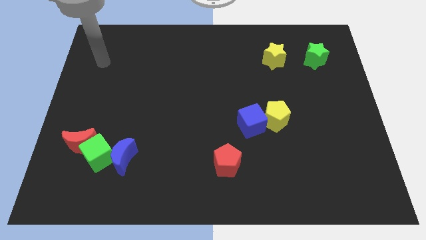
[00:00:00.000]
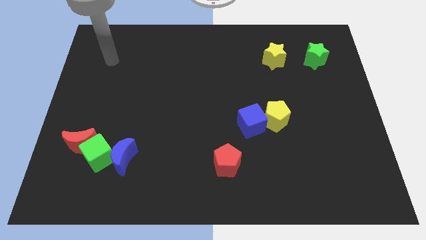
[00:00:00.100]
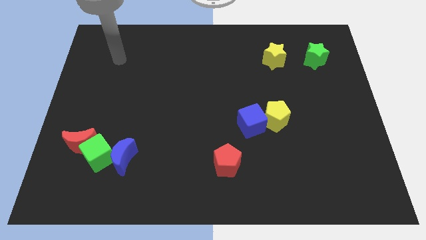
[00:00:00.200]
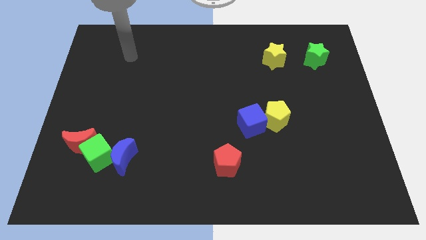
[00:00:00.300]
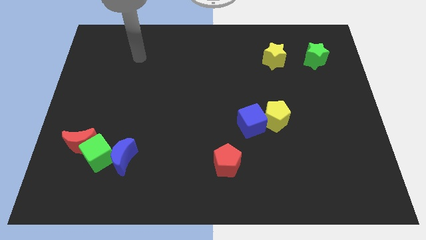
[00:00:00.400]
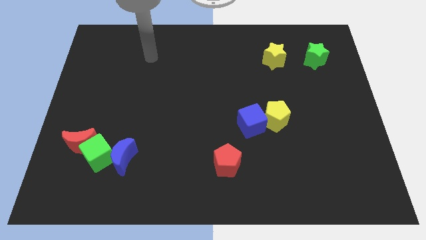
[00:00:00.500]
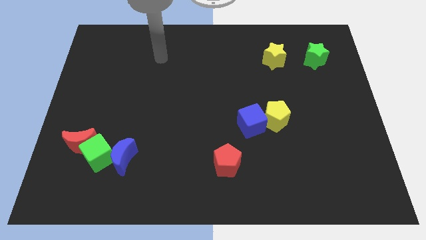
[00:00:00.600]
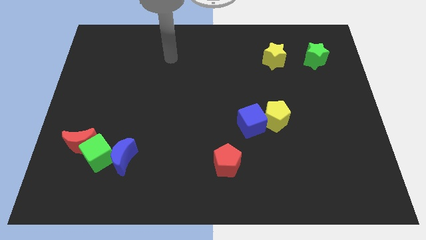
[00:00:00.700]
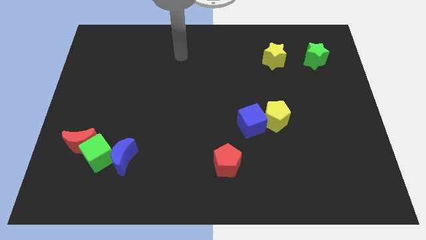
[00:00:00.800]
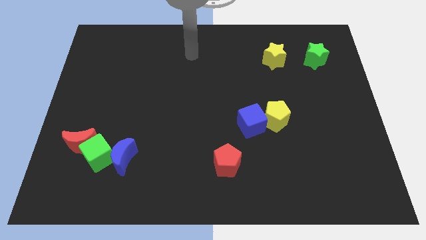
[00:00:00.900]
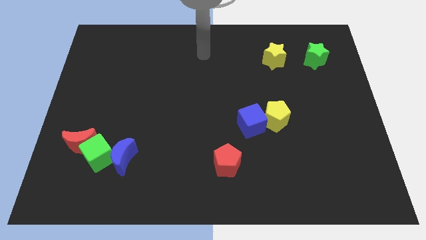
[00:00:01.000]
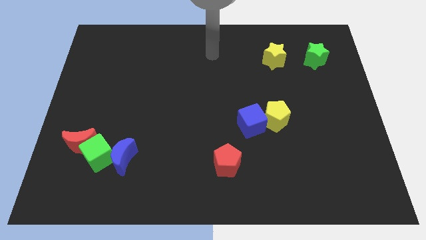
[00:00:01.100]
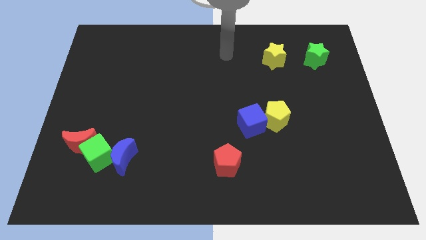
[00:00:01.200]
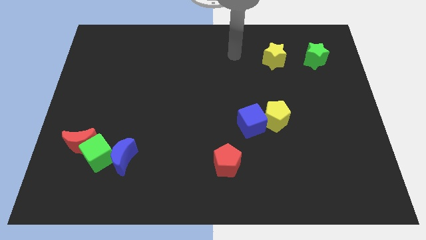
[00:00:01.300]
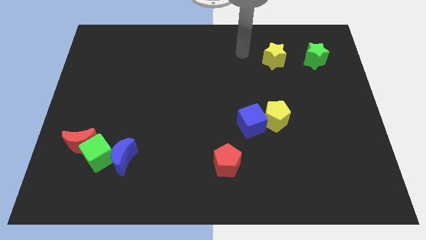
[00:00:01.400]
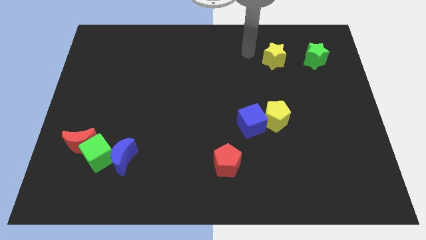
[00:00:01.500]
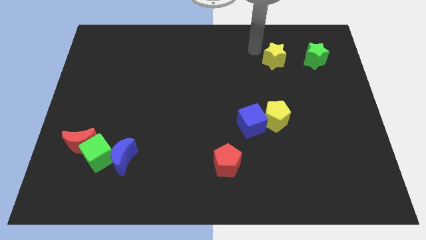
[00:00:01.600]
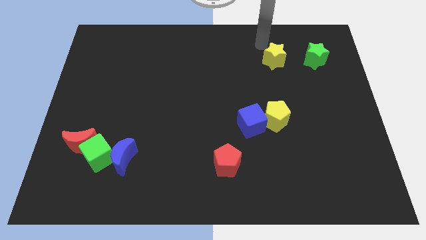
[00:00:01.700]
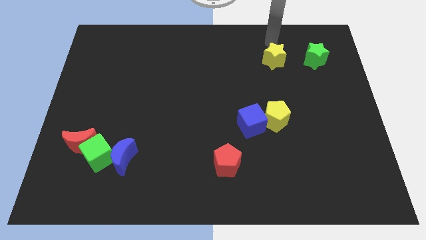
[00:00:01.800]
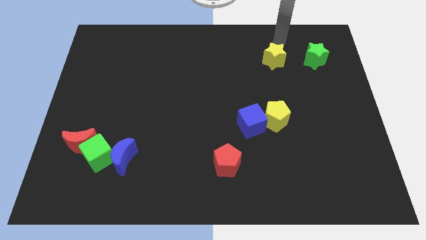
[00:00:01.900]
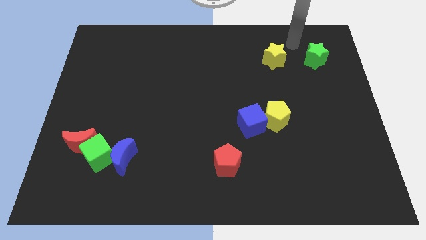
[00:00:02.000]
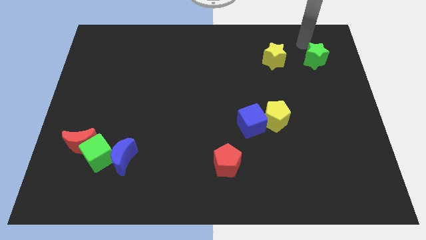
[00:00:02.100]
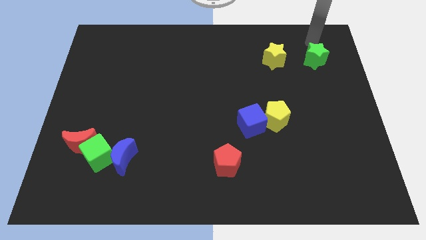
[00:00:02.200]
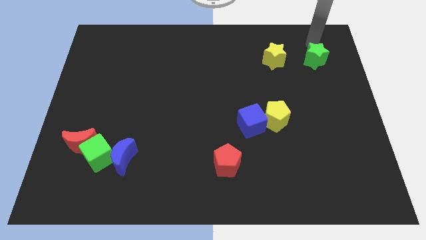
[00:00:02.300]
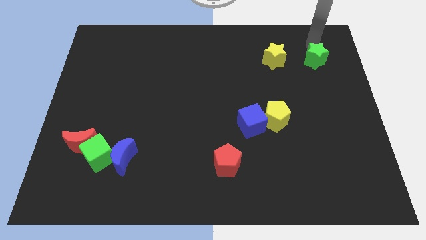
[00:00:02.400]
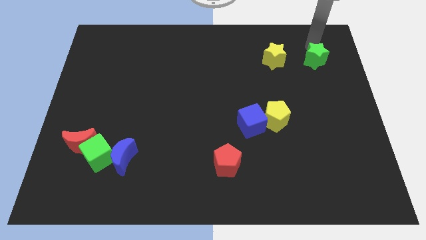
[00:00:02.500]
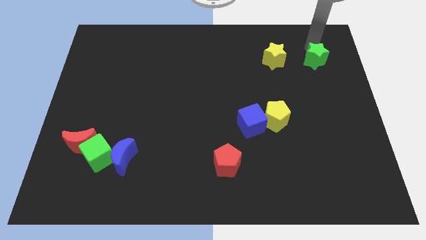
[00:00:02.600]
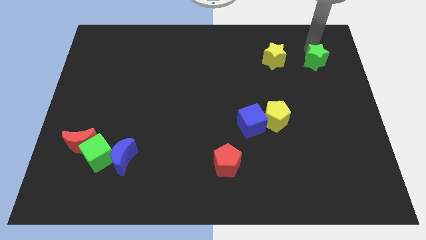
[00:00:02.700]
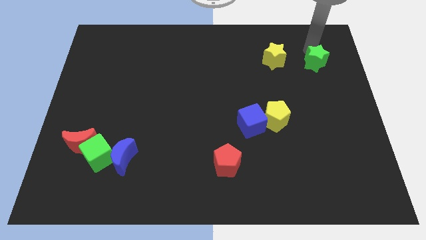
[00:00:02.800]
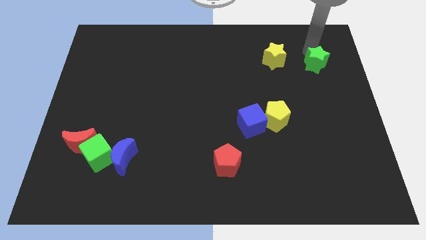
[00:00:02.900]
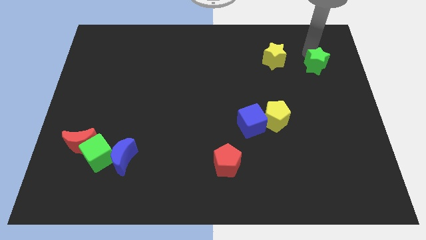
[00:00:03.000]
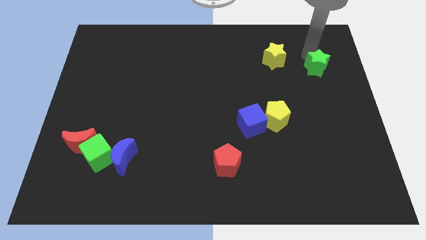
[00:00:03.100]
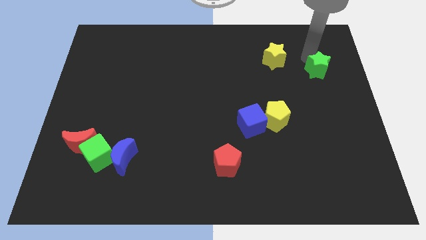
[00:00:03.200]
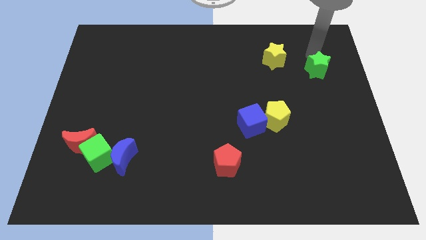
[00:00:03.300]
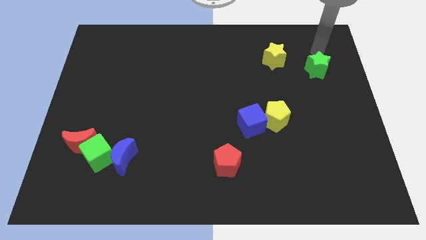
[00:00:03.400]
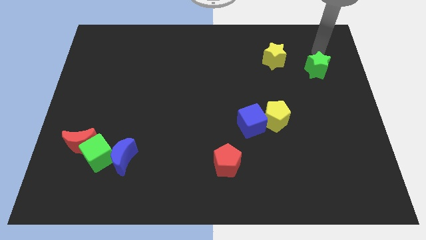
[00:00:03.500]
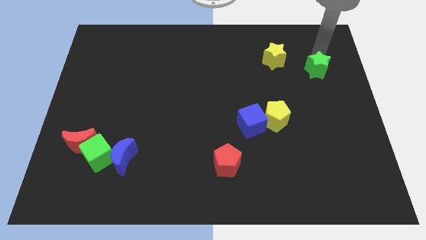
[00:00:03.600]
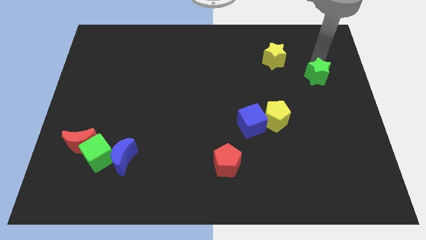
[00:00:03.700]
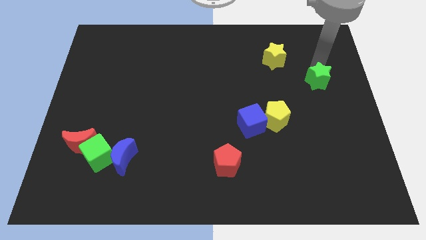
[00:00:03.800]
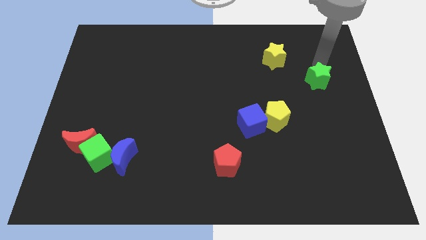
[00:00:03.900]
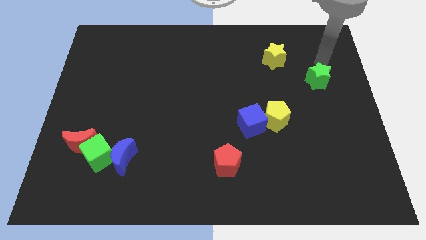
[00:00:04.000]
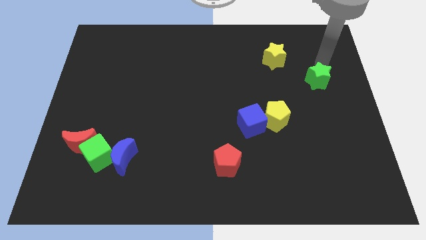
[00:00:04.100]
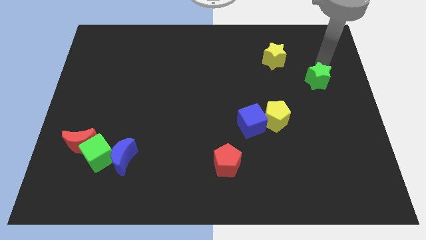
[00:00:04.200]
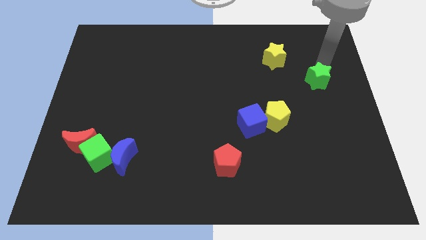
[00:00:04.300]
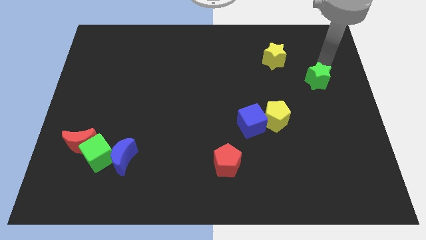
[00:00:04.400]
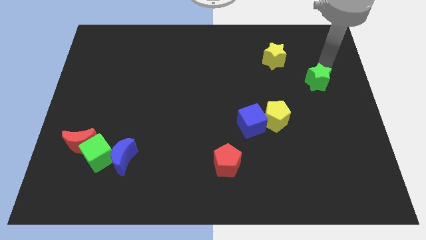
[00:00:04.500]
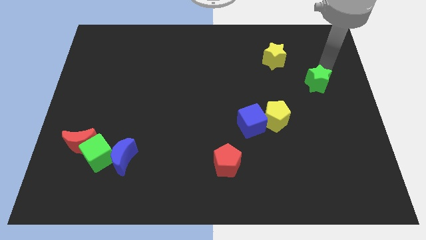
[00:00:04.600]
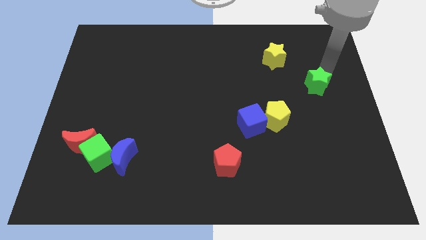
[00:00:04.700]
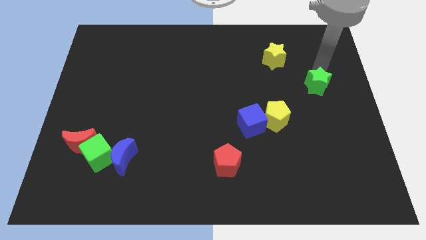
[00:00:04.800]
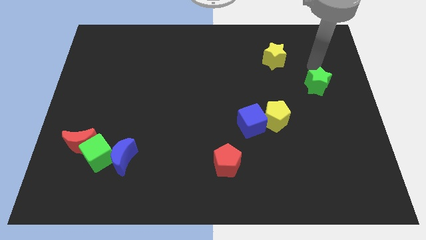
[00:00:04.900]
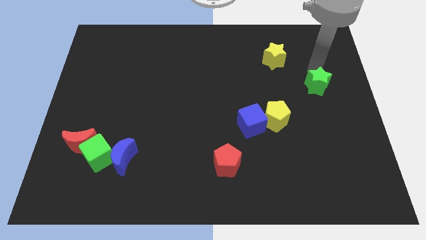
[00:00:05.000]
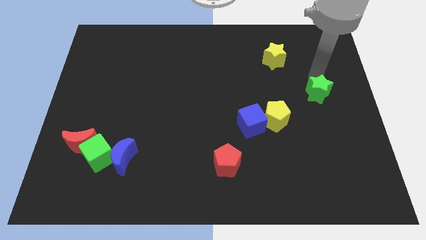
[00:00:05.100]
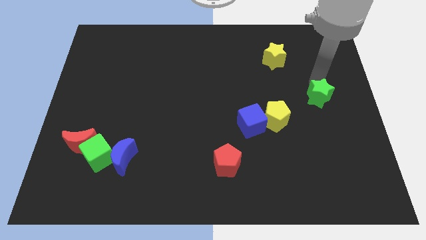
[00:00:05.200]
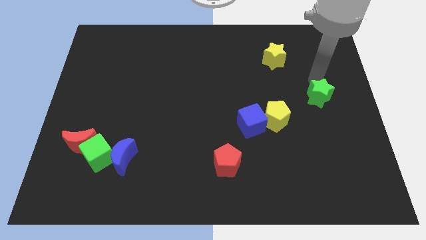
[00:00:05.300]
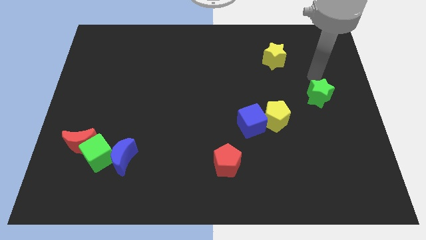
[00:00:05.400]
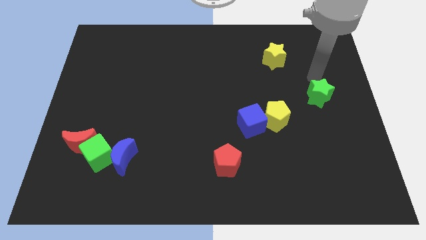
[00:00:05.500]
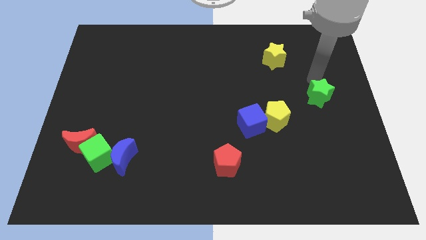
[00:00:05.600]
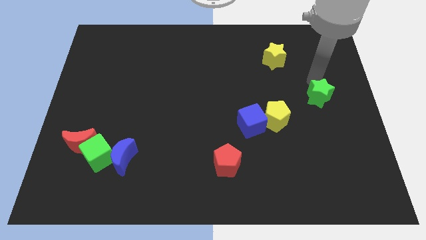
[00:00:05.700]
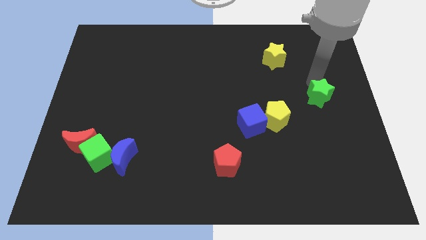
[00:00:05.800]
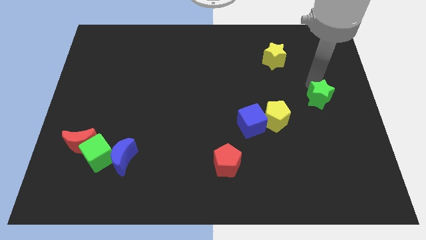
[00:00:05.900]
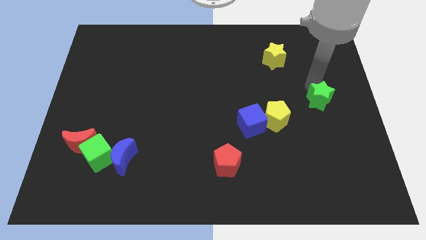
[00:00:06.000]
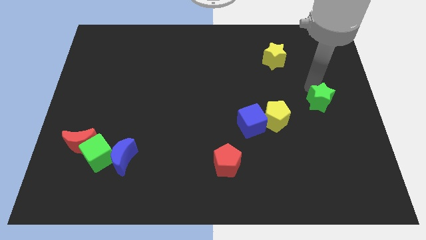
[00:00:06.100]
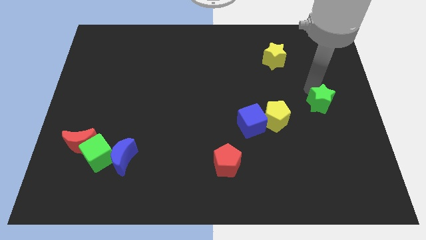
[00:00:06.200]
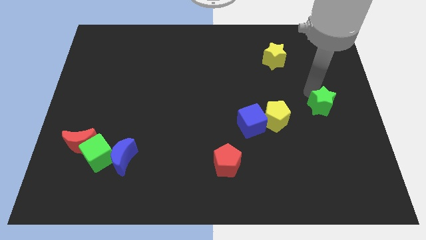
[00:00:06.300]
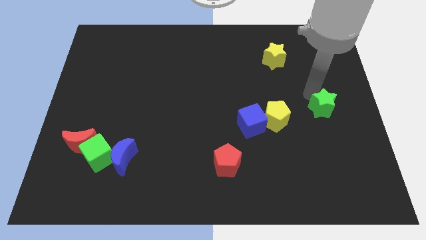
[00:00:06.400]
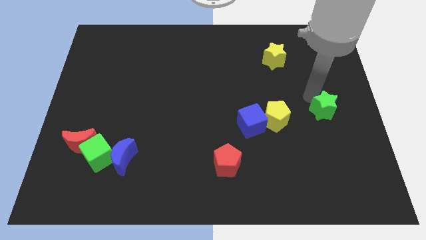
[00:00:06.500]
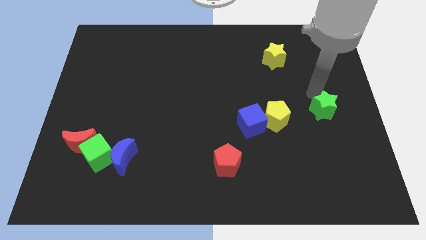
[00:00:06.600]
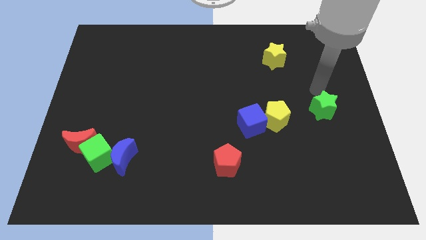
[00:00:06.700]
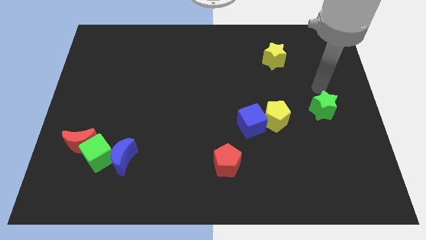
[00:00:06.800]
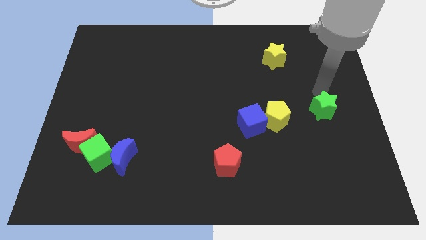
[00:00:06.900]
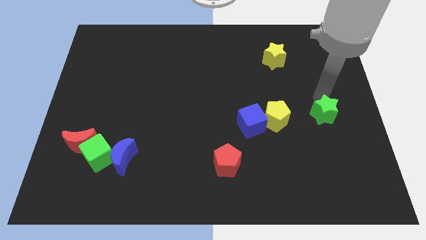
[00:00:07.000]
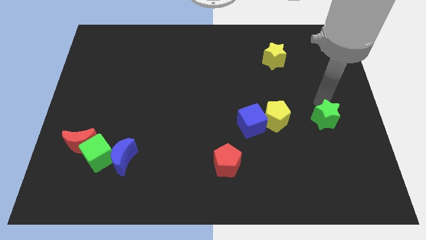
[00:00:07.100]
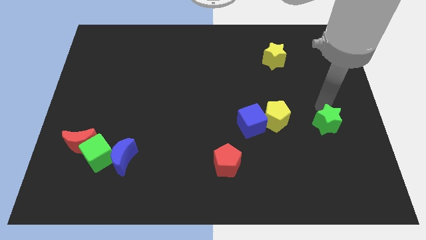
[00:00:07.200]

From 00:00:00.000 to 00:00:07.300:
push the green star down

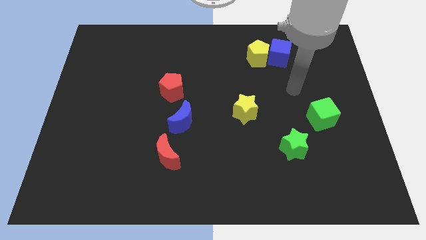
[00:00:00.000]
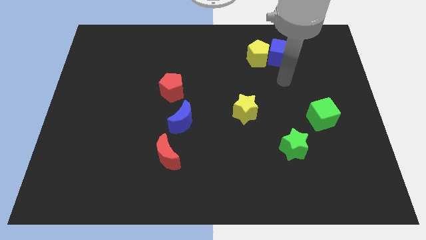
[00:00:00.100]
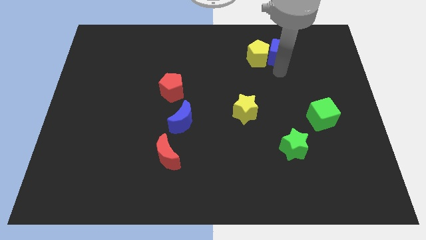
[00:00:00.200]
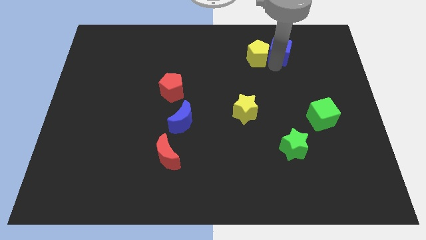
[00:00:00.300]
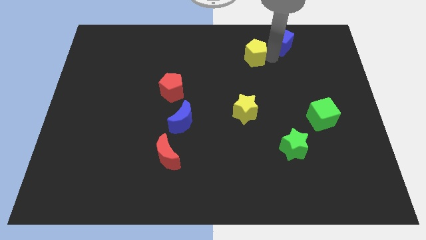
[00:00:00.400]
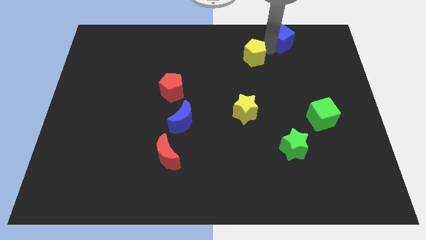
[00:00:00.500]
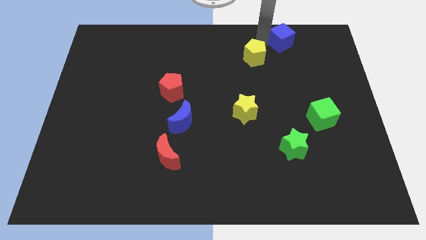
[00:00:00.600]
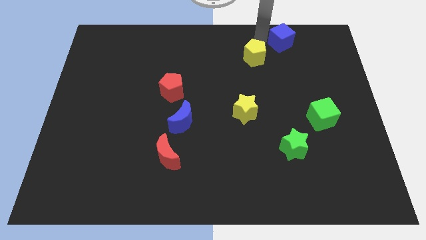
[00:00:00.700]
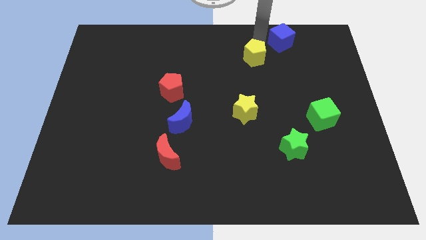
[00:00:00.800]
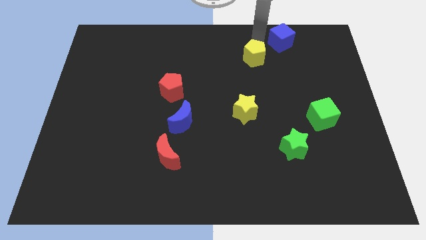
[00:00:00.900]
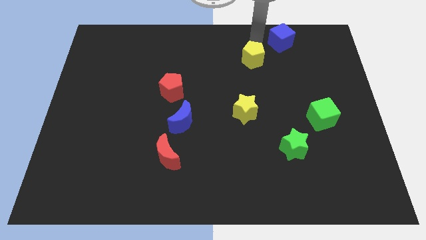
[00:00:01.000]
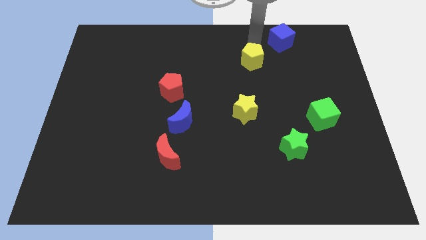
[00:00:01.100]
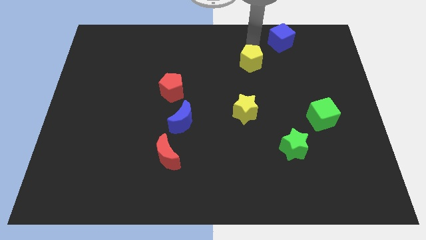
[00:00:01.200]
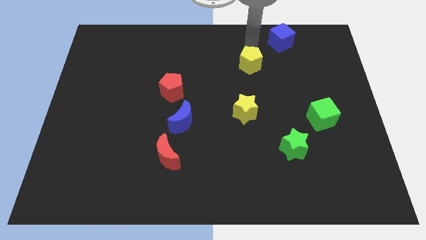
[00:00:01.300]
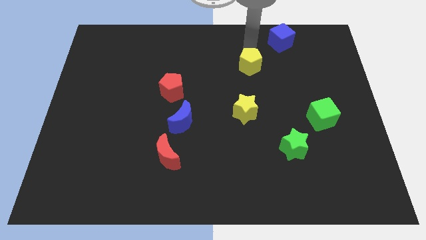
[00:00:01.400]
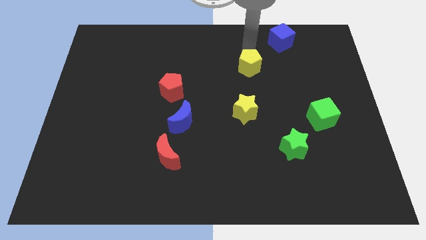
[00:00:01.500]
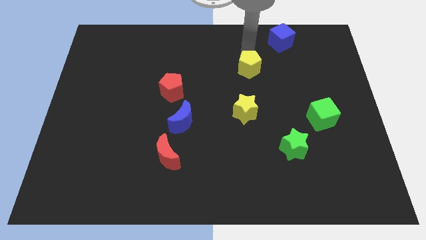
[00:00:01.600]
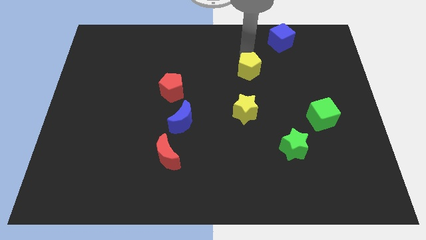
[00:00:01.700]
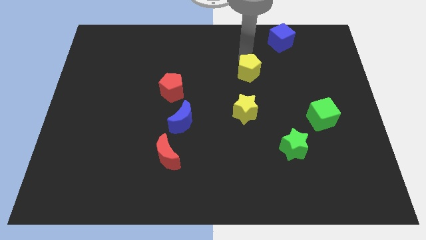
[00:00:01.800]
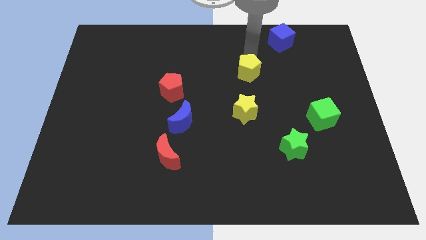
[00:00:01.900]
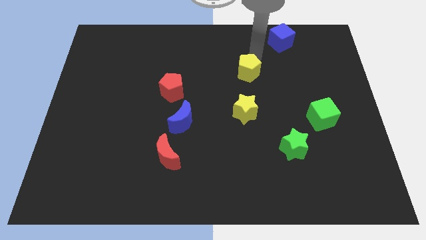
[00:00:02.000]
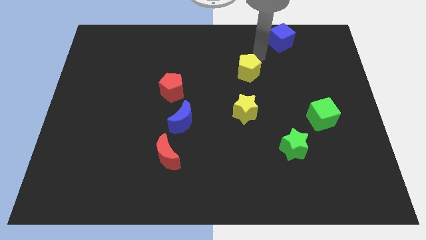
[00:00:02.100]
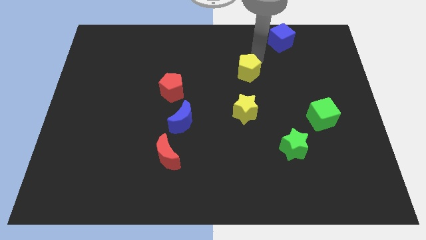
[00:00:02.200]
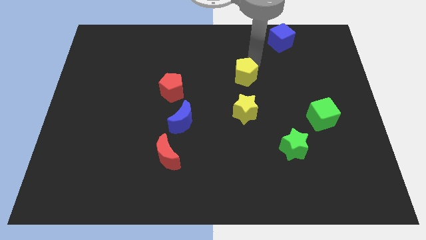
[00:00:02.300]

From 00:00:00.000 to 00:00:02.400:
push the yellow pentagon down and left slightly
